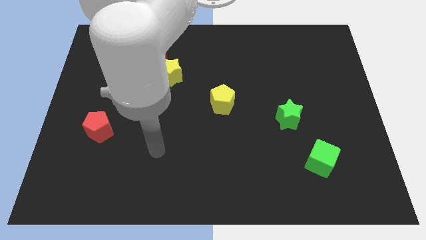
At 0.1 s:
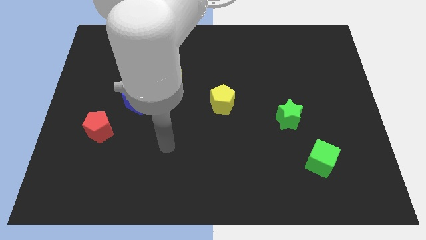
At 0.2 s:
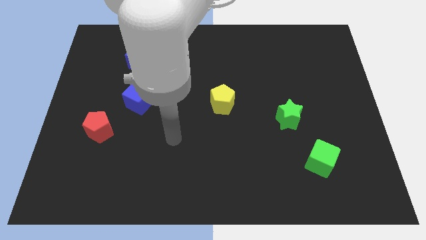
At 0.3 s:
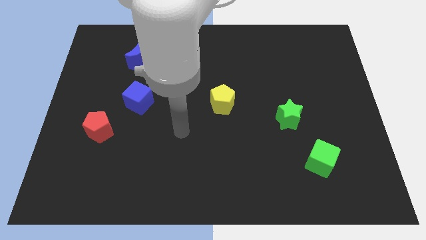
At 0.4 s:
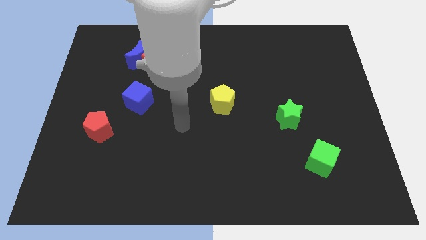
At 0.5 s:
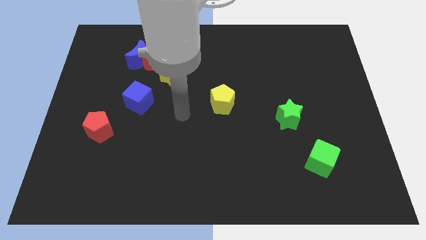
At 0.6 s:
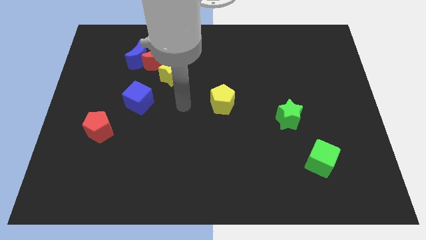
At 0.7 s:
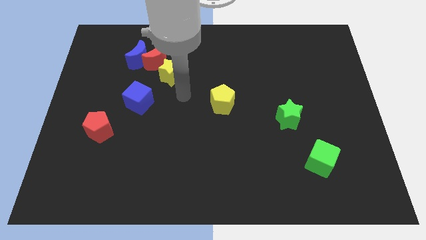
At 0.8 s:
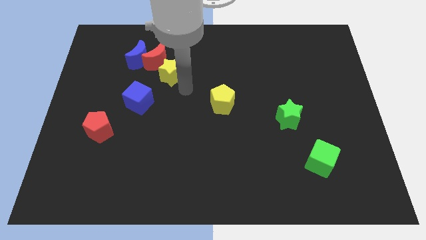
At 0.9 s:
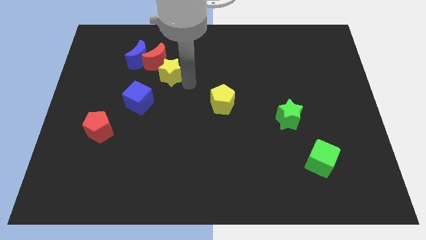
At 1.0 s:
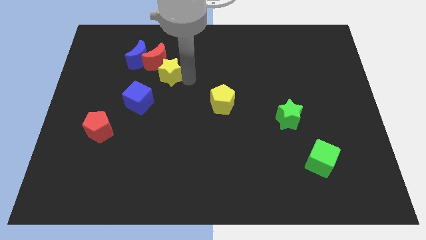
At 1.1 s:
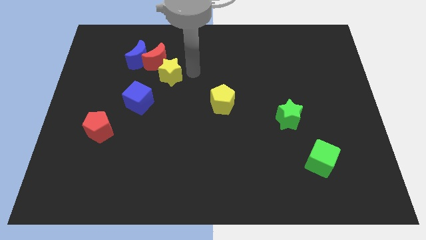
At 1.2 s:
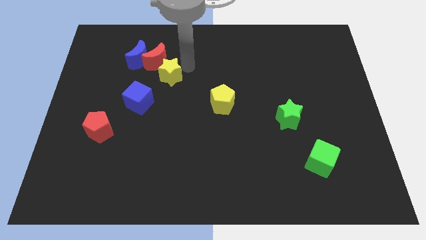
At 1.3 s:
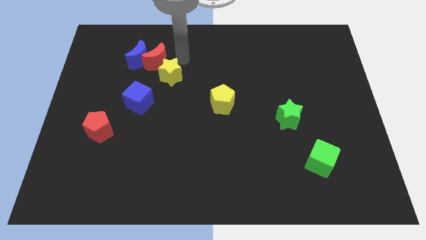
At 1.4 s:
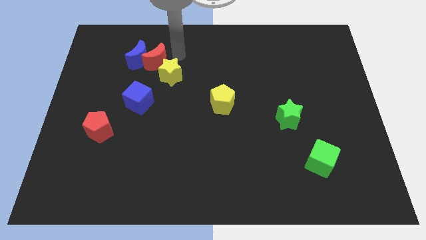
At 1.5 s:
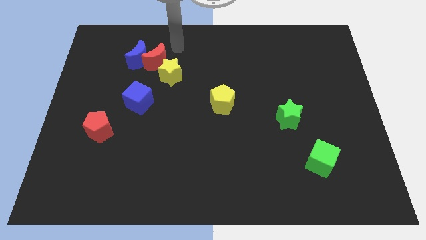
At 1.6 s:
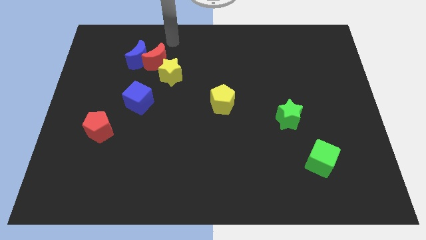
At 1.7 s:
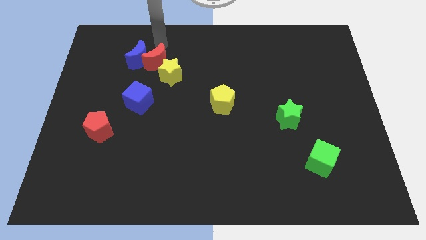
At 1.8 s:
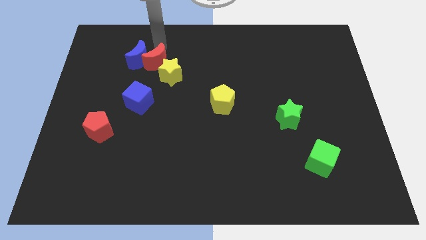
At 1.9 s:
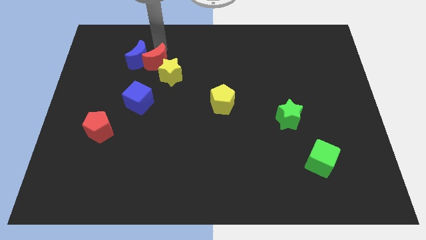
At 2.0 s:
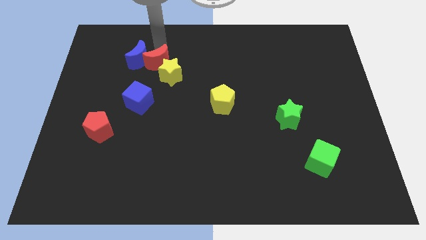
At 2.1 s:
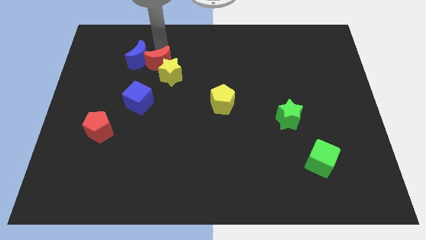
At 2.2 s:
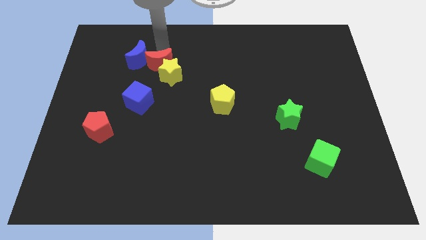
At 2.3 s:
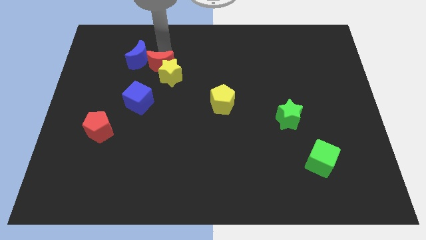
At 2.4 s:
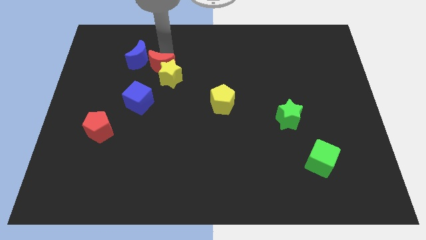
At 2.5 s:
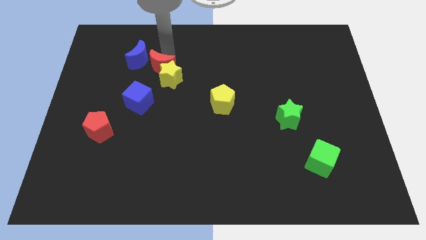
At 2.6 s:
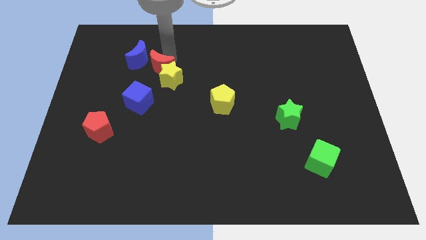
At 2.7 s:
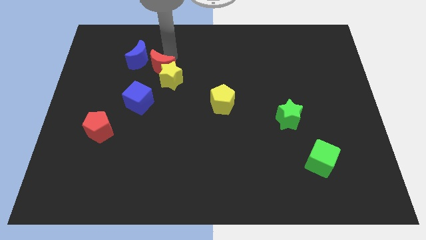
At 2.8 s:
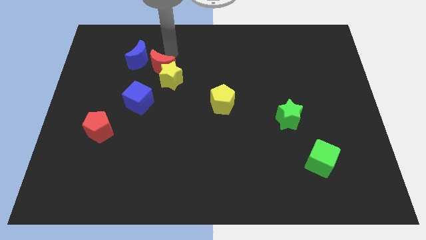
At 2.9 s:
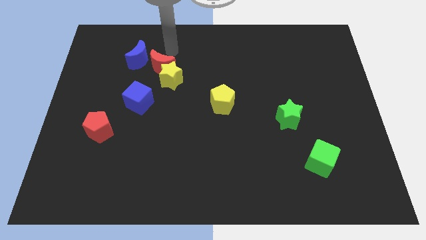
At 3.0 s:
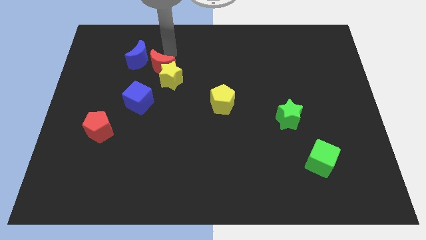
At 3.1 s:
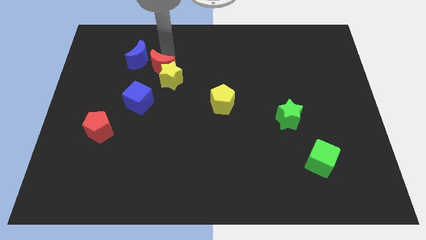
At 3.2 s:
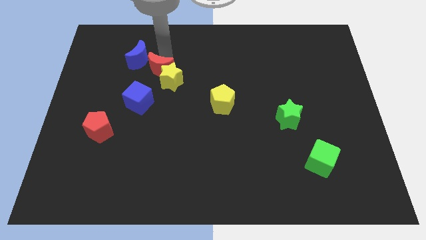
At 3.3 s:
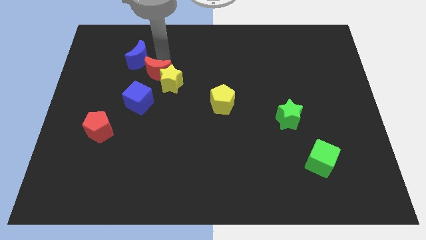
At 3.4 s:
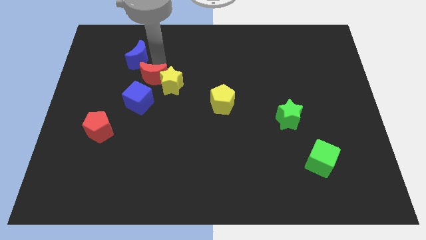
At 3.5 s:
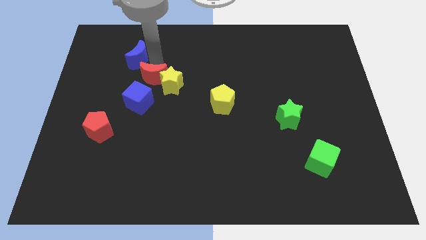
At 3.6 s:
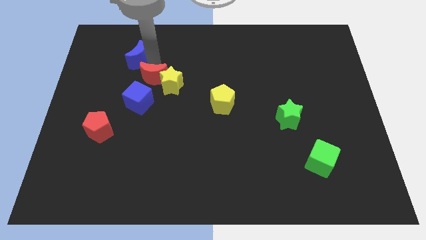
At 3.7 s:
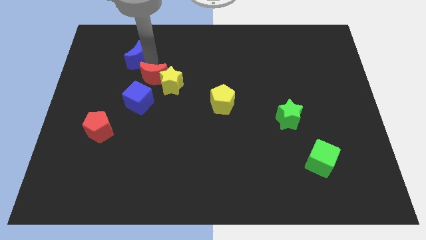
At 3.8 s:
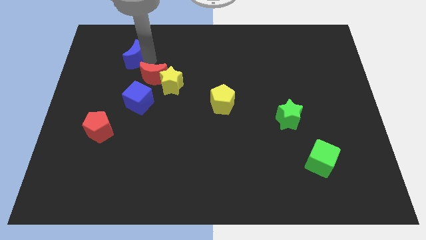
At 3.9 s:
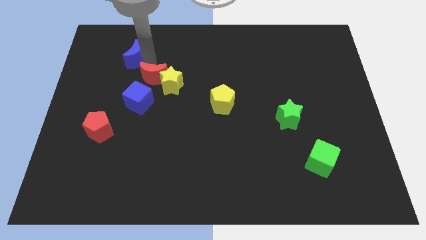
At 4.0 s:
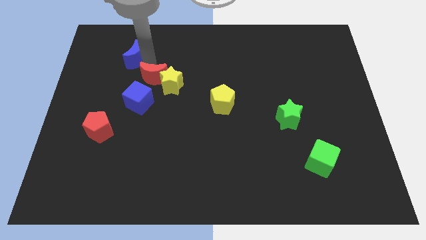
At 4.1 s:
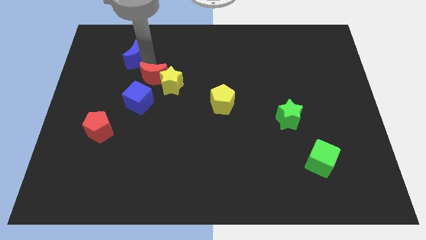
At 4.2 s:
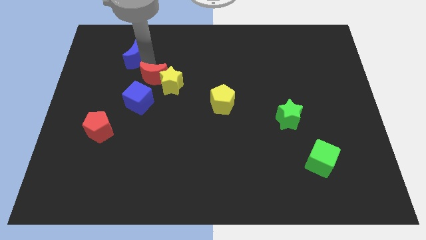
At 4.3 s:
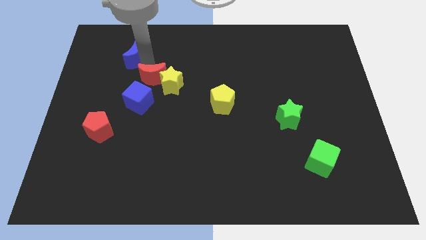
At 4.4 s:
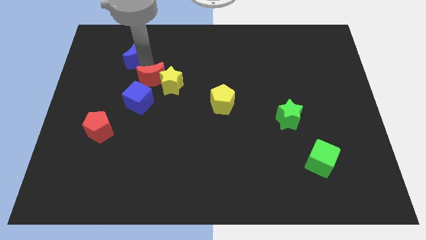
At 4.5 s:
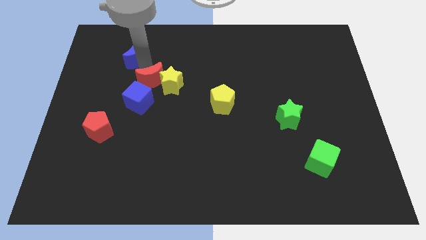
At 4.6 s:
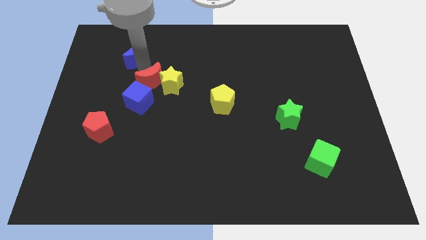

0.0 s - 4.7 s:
move the red moon down slightly

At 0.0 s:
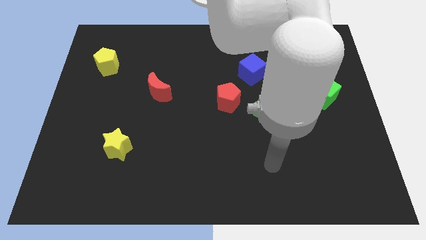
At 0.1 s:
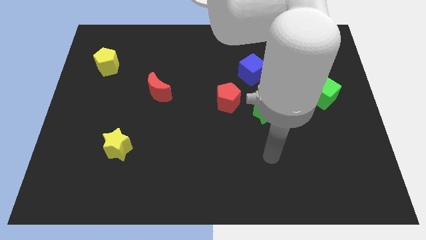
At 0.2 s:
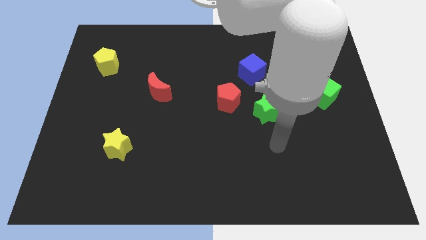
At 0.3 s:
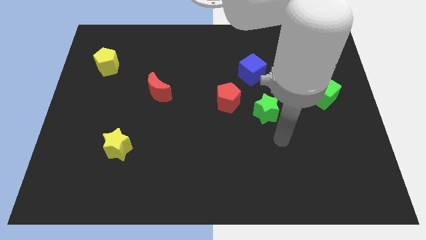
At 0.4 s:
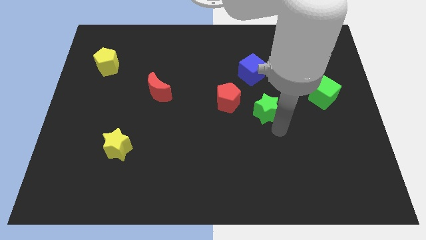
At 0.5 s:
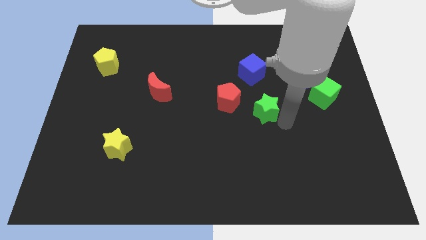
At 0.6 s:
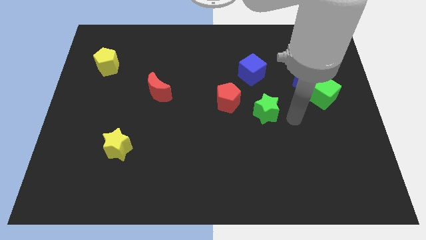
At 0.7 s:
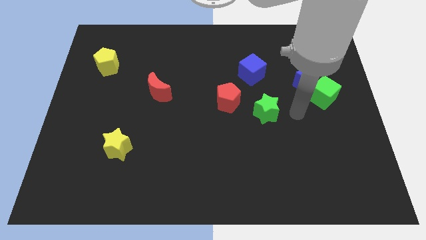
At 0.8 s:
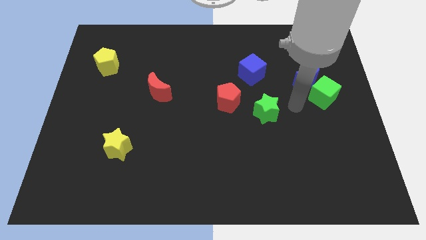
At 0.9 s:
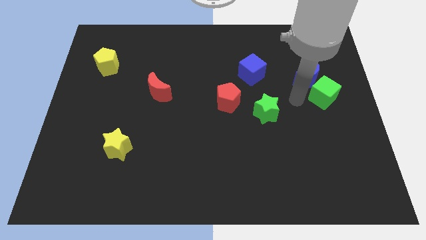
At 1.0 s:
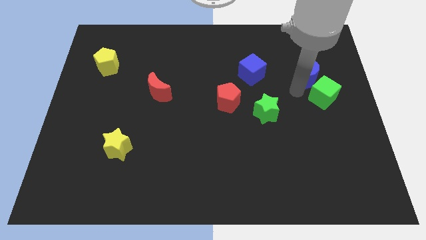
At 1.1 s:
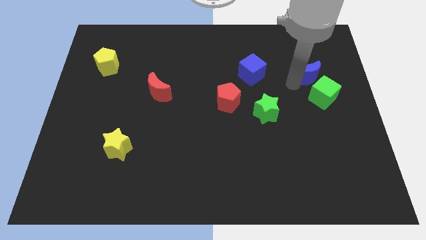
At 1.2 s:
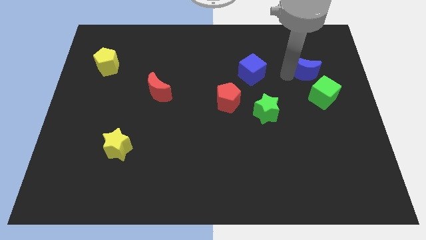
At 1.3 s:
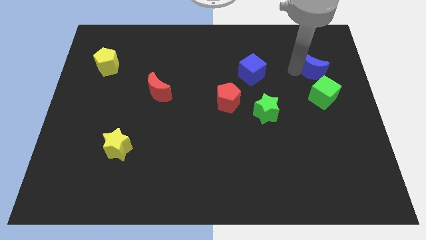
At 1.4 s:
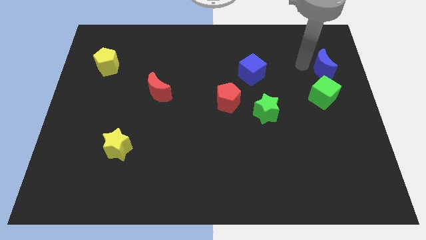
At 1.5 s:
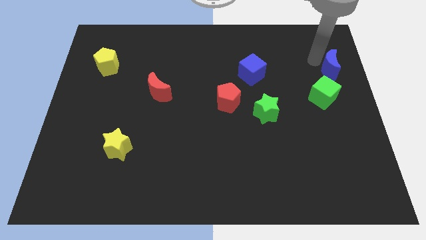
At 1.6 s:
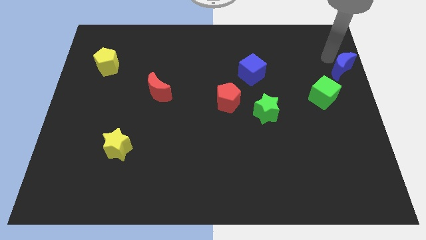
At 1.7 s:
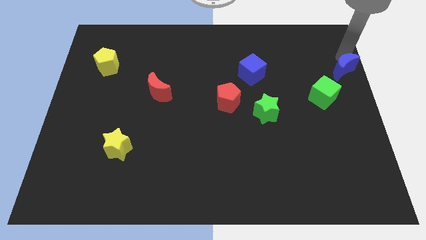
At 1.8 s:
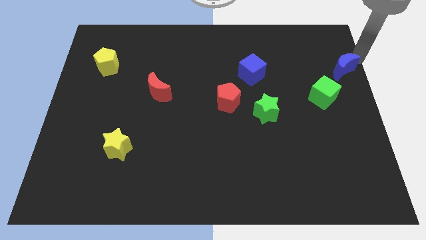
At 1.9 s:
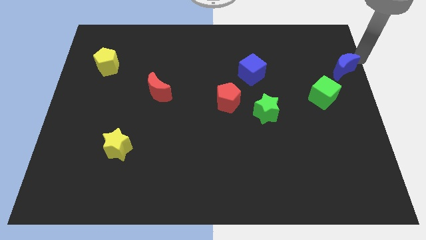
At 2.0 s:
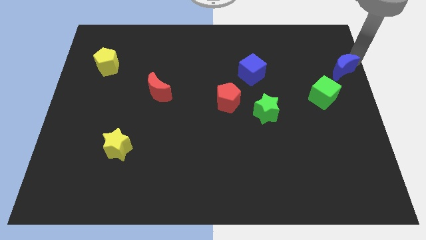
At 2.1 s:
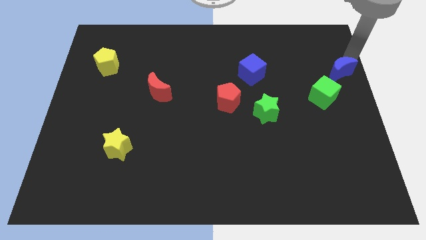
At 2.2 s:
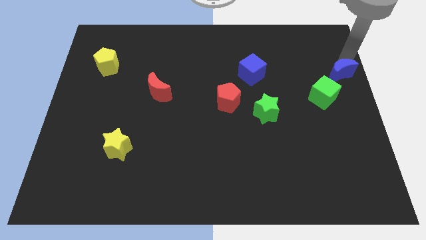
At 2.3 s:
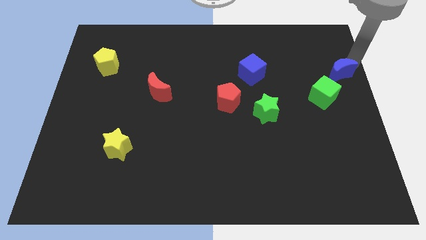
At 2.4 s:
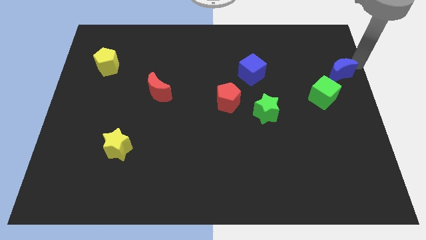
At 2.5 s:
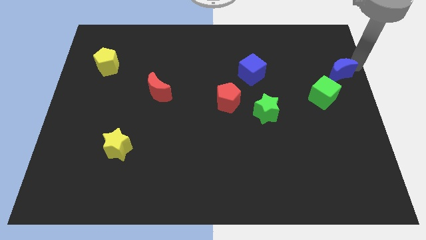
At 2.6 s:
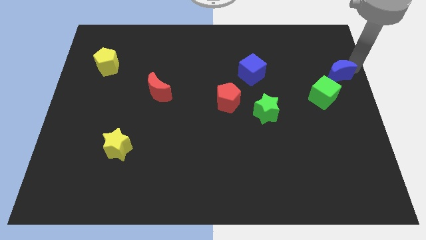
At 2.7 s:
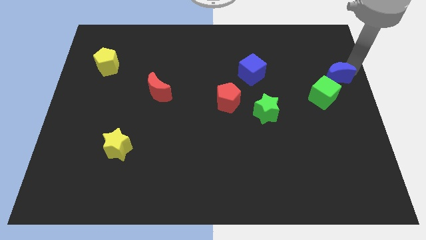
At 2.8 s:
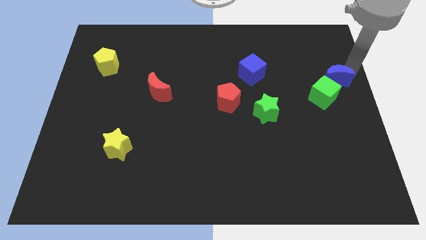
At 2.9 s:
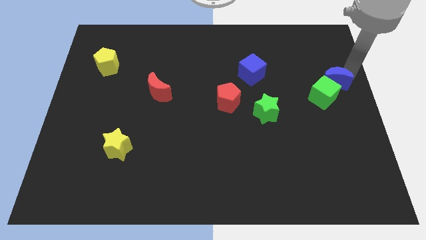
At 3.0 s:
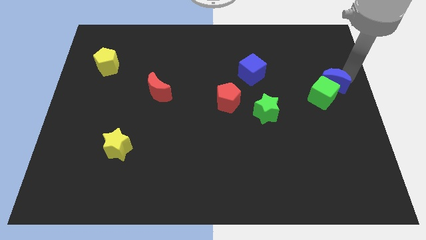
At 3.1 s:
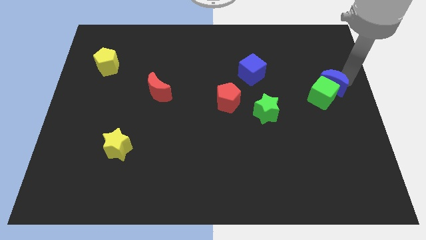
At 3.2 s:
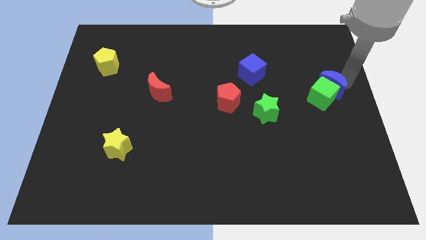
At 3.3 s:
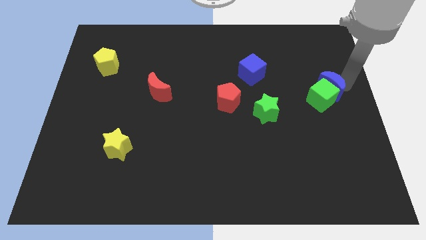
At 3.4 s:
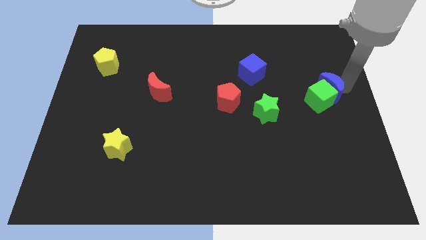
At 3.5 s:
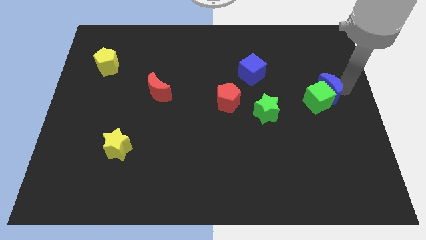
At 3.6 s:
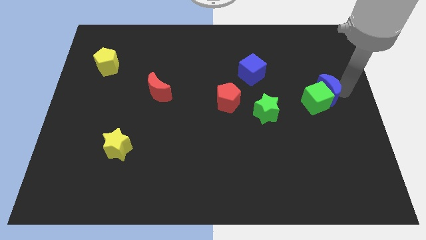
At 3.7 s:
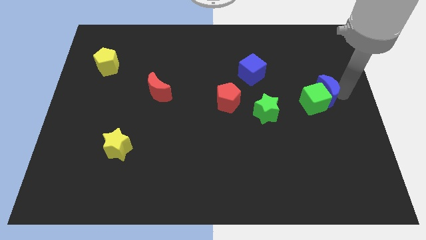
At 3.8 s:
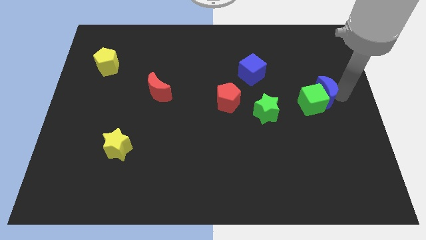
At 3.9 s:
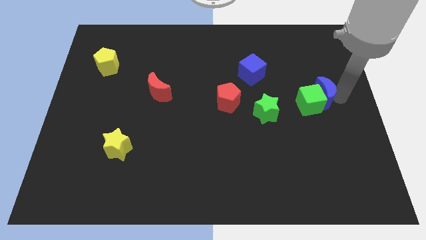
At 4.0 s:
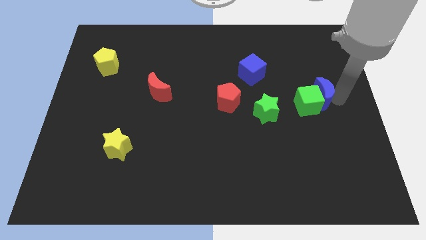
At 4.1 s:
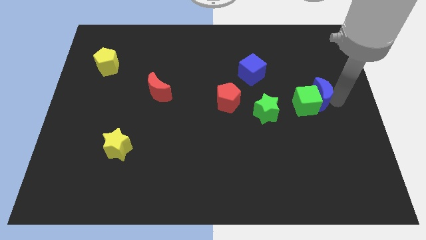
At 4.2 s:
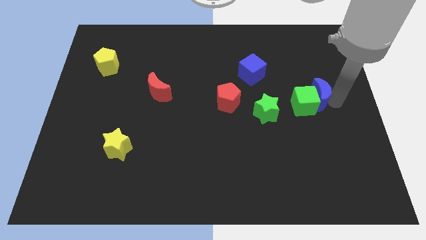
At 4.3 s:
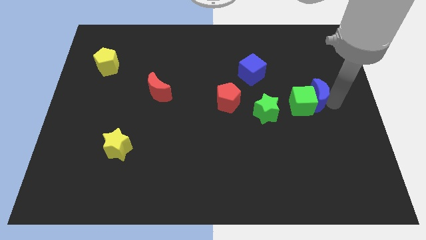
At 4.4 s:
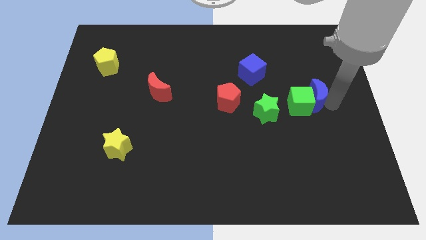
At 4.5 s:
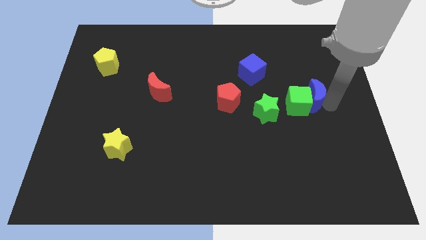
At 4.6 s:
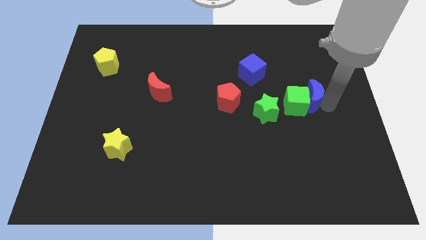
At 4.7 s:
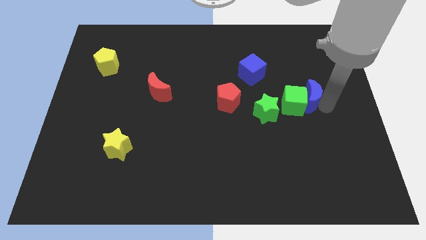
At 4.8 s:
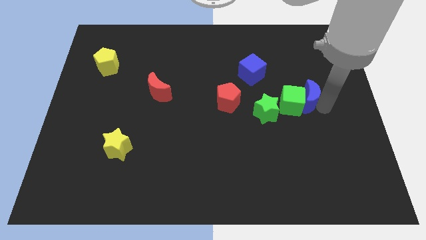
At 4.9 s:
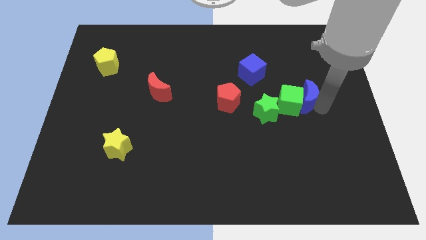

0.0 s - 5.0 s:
move the blue moon a little bit downwards
